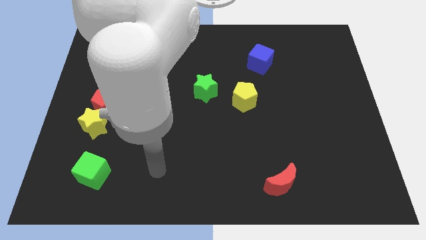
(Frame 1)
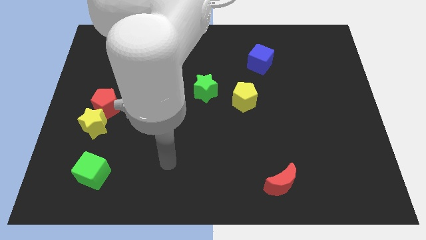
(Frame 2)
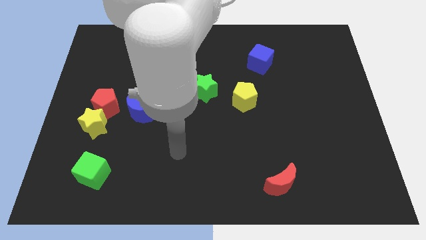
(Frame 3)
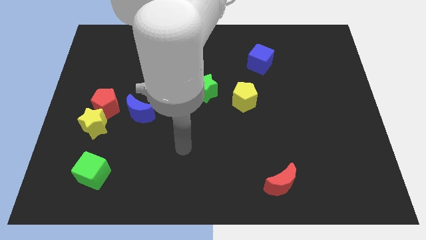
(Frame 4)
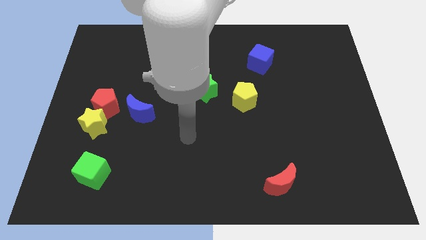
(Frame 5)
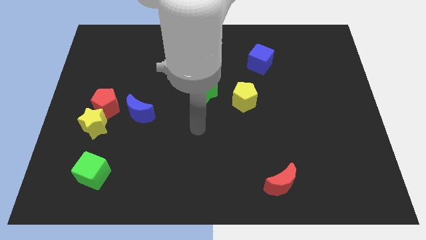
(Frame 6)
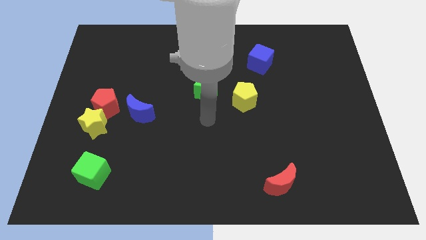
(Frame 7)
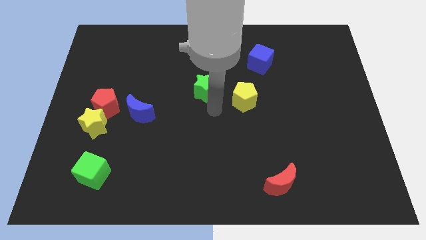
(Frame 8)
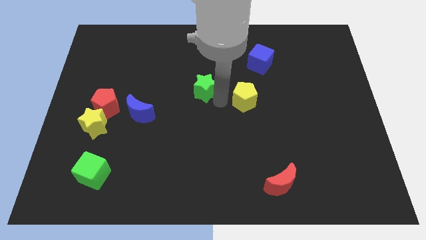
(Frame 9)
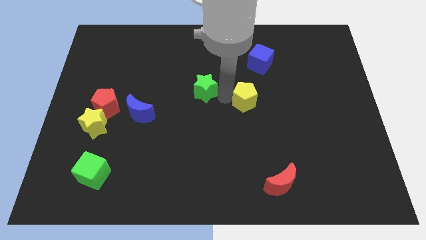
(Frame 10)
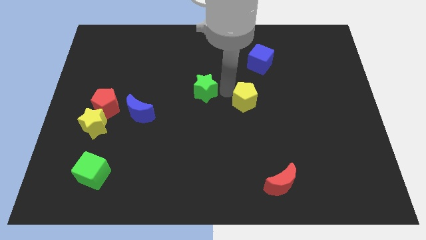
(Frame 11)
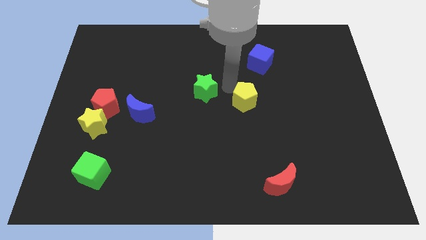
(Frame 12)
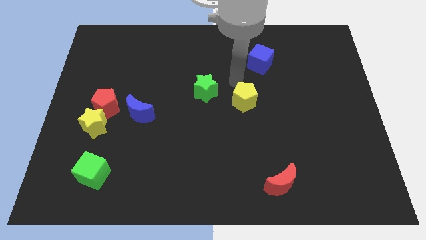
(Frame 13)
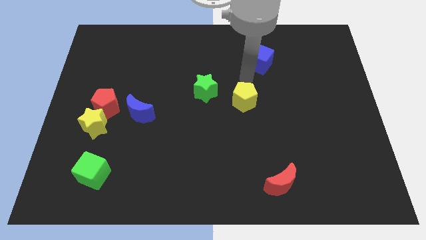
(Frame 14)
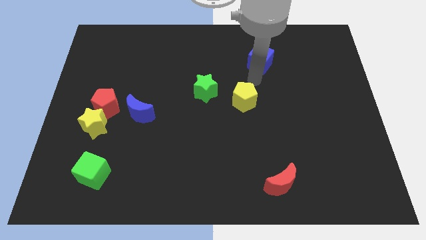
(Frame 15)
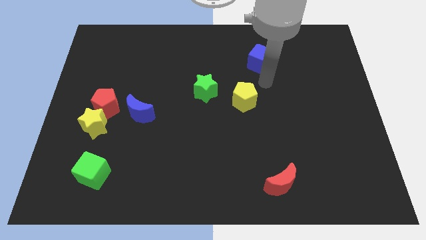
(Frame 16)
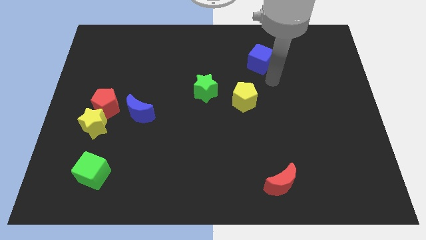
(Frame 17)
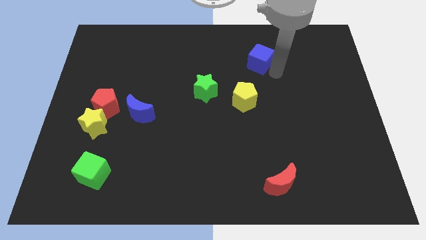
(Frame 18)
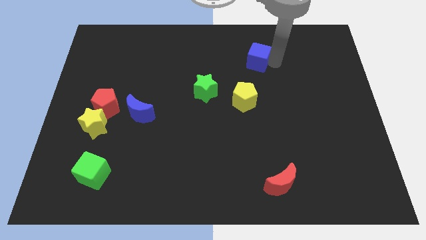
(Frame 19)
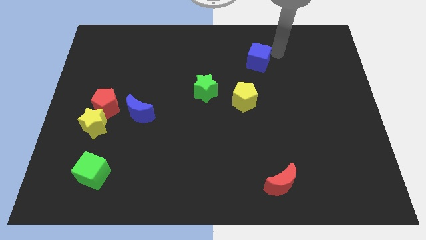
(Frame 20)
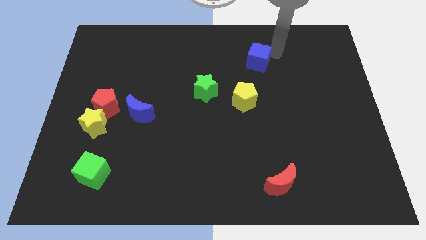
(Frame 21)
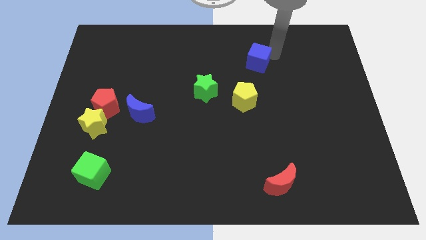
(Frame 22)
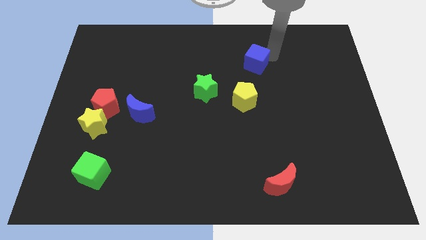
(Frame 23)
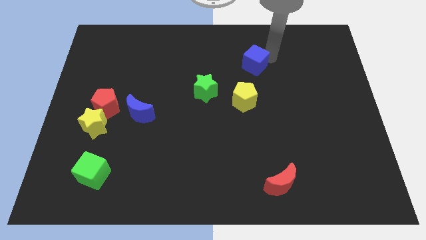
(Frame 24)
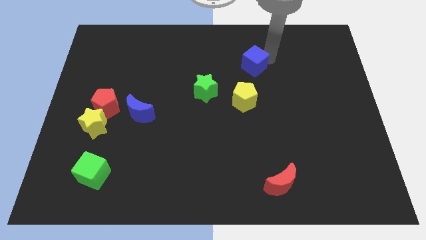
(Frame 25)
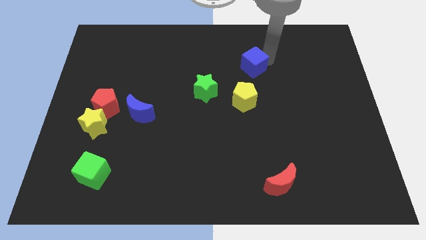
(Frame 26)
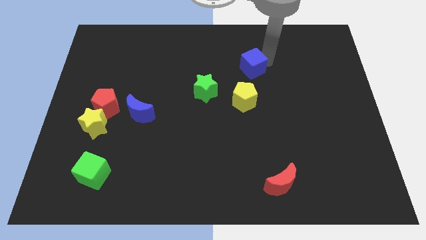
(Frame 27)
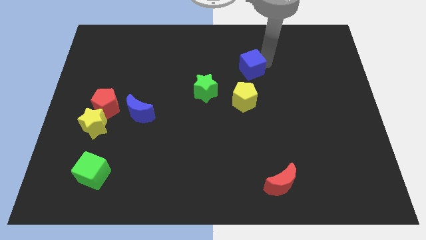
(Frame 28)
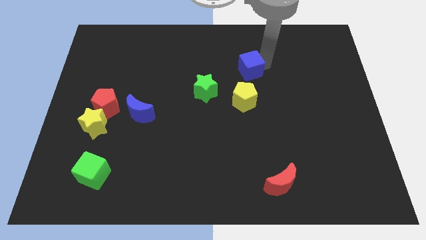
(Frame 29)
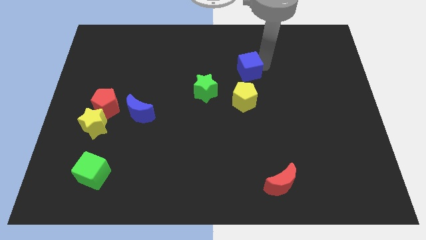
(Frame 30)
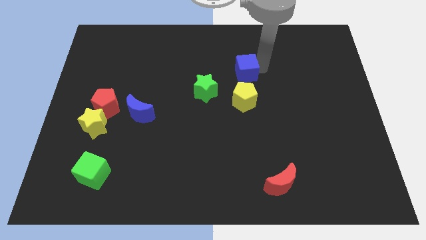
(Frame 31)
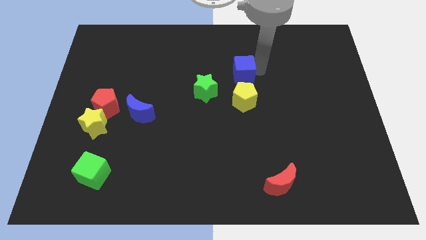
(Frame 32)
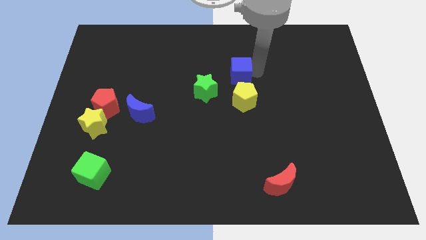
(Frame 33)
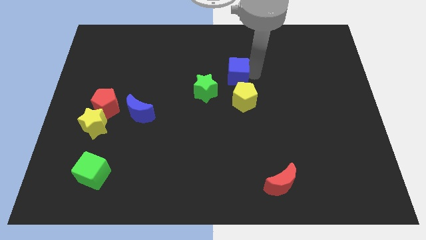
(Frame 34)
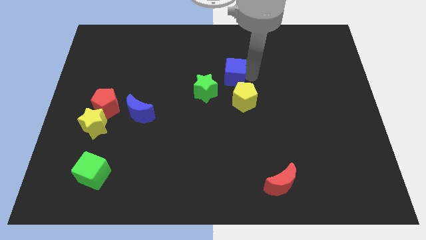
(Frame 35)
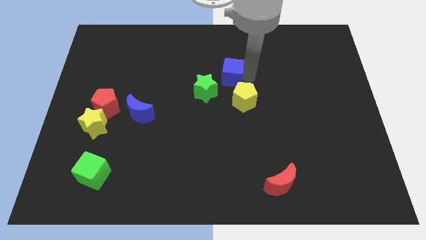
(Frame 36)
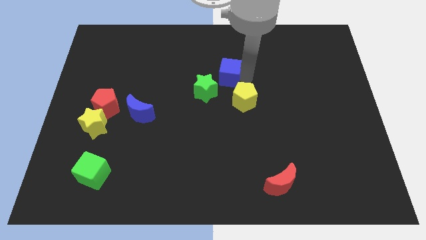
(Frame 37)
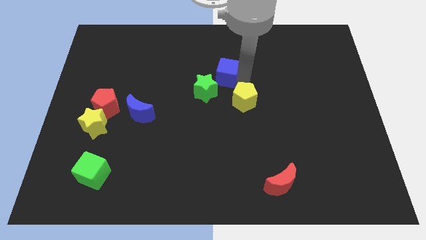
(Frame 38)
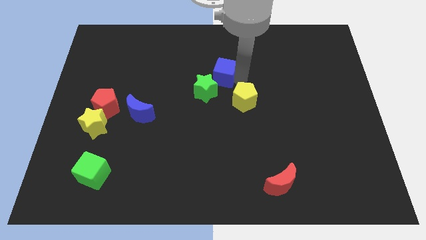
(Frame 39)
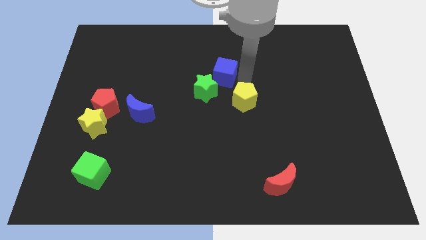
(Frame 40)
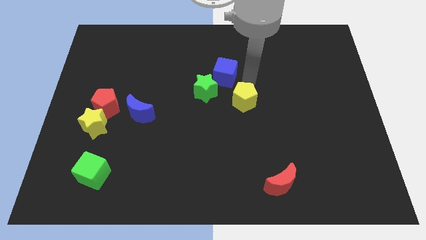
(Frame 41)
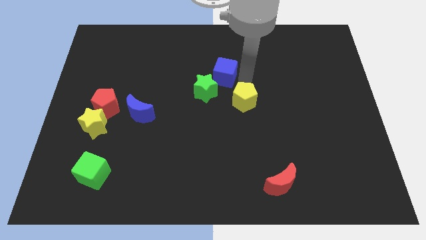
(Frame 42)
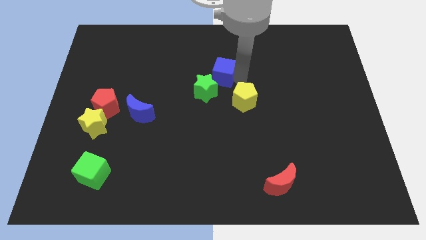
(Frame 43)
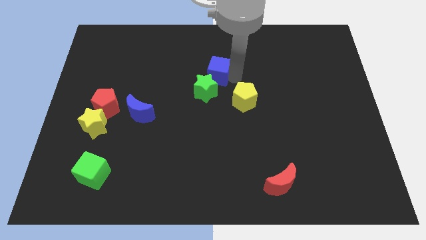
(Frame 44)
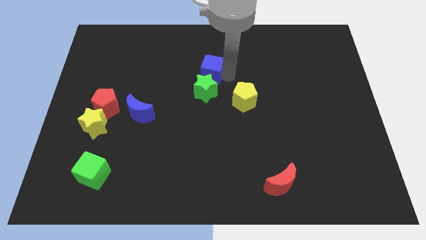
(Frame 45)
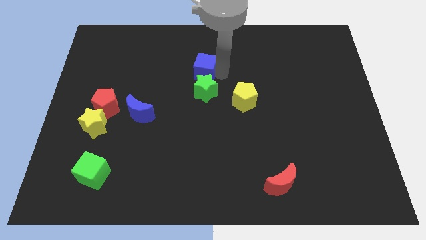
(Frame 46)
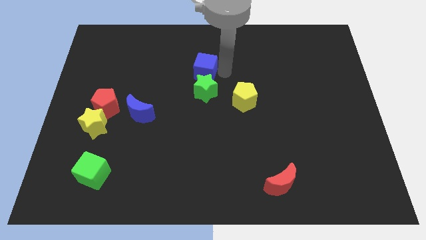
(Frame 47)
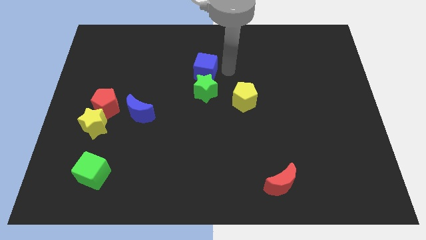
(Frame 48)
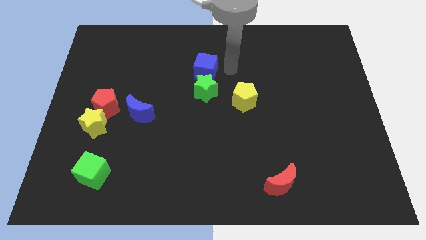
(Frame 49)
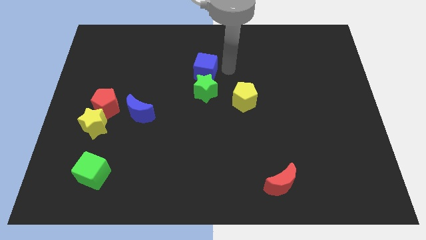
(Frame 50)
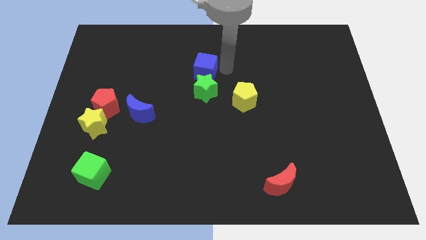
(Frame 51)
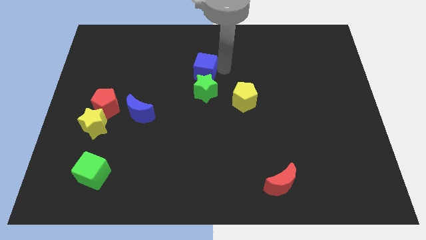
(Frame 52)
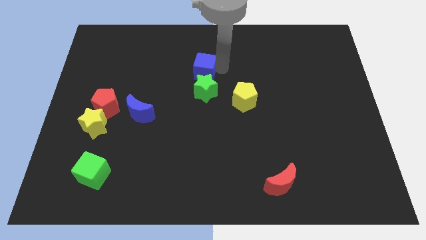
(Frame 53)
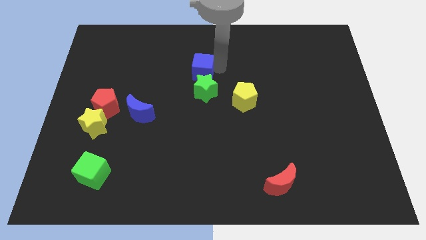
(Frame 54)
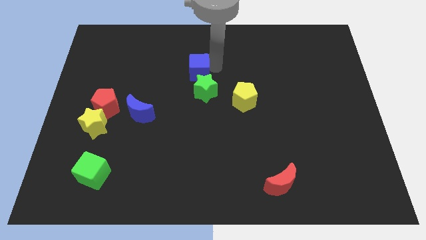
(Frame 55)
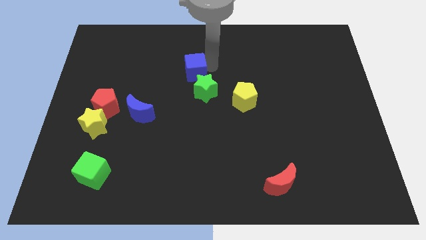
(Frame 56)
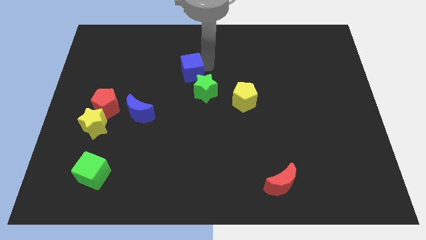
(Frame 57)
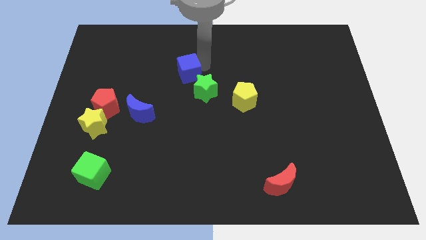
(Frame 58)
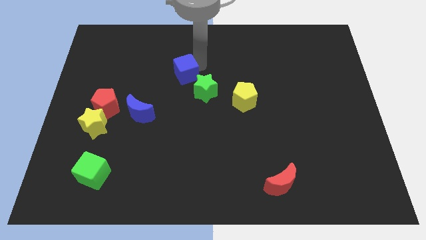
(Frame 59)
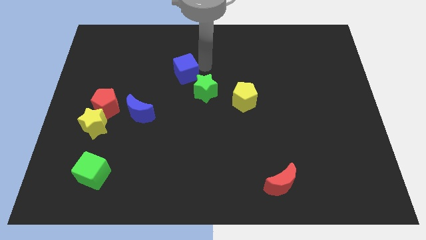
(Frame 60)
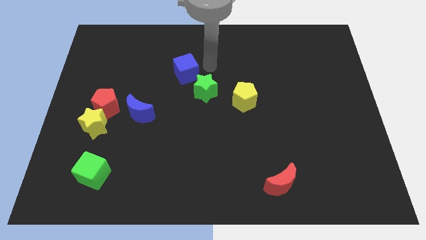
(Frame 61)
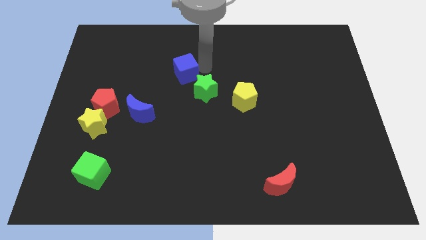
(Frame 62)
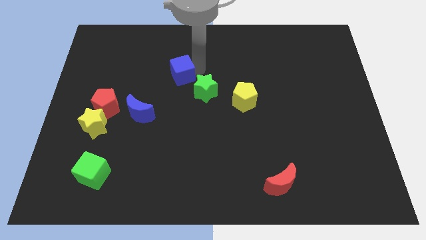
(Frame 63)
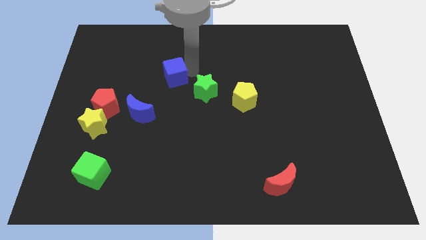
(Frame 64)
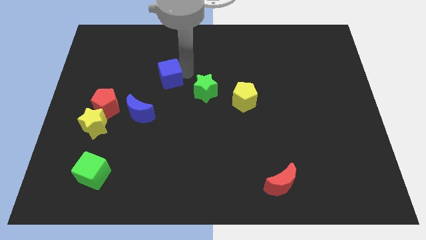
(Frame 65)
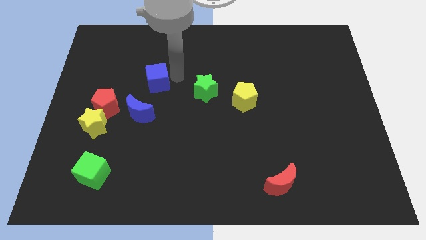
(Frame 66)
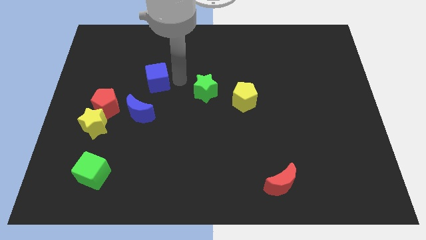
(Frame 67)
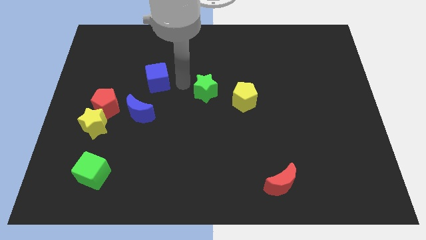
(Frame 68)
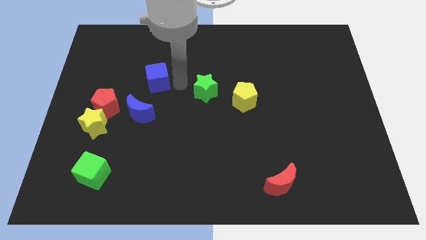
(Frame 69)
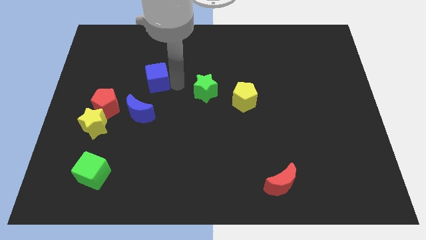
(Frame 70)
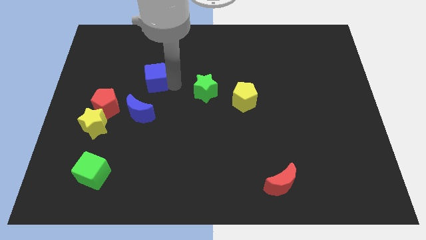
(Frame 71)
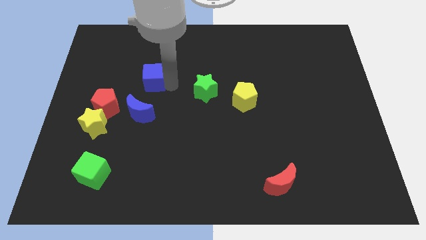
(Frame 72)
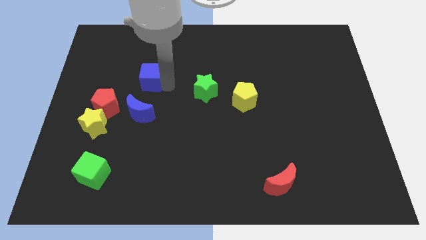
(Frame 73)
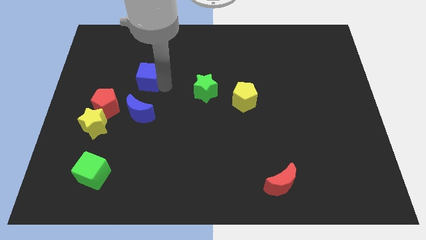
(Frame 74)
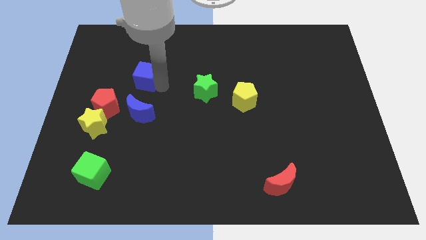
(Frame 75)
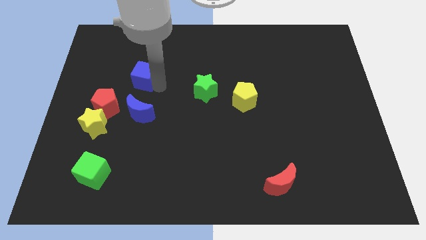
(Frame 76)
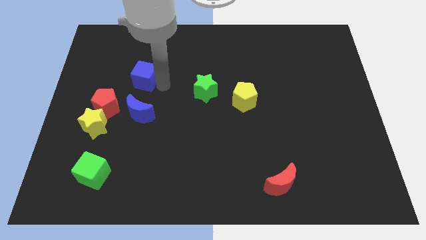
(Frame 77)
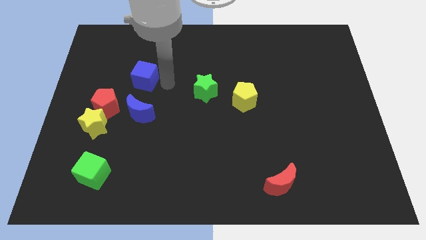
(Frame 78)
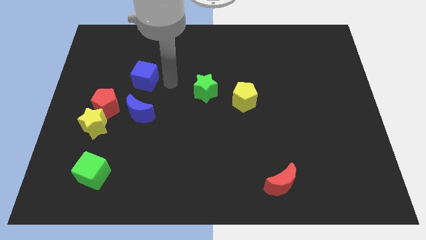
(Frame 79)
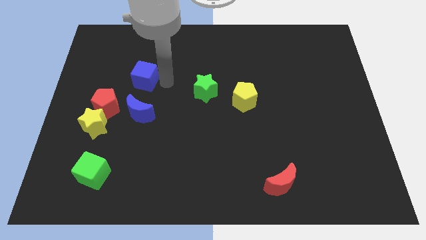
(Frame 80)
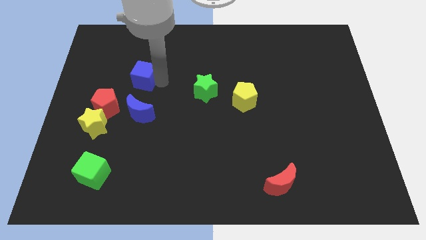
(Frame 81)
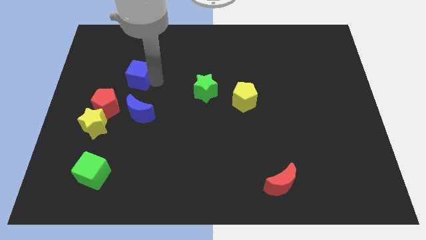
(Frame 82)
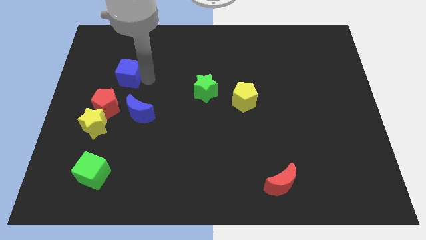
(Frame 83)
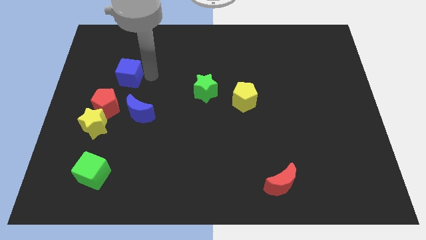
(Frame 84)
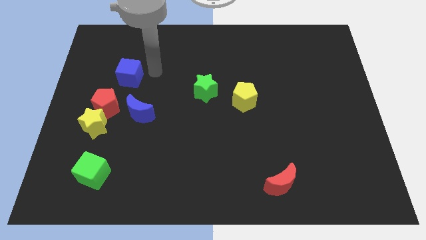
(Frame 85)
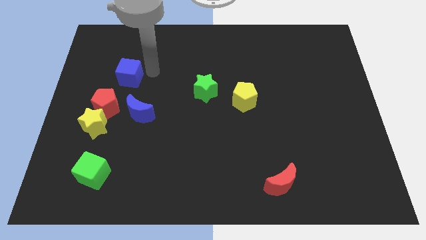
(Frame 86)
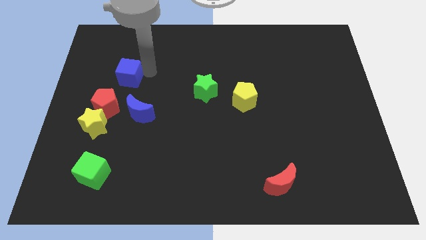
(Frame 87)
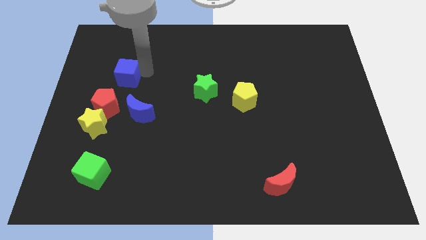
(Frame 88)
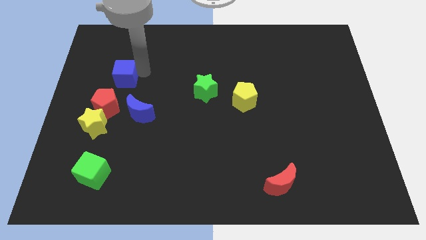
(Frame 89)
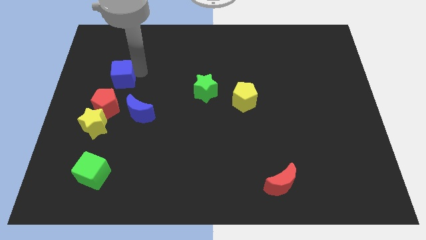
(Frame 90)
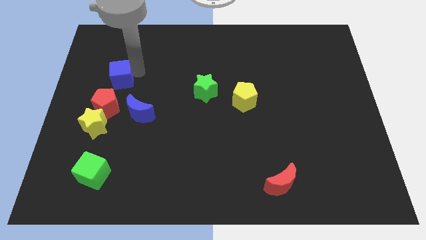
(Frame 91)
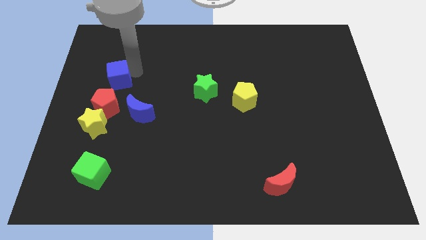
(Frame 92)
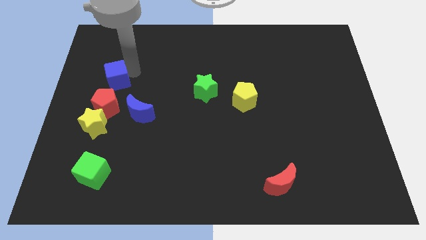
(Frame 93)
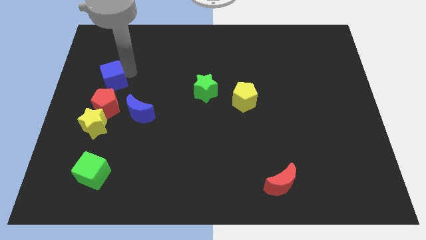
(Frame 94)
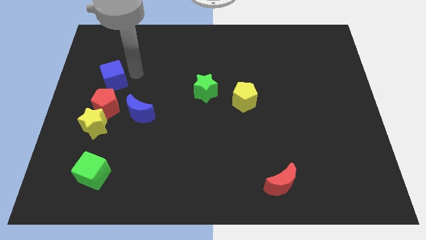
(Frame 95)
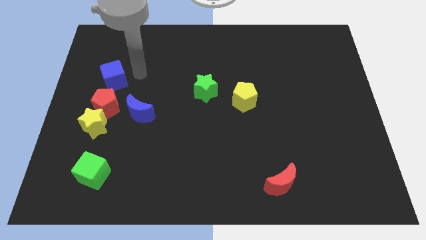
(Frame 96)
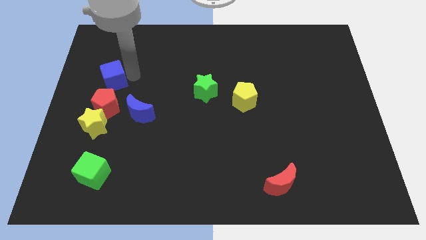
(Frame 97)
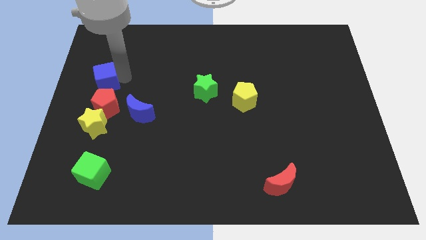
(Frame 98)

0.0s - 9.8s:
move the blue cube to the center left
